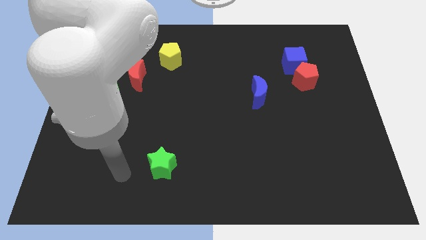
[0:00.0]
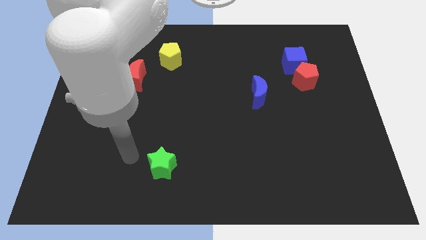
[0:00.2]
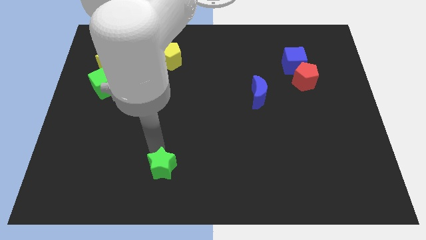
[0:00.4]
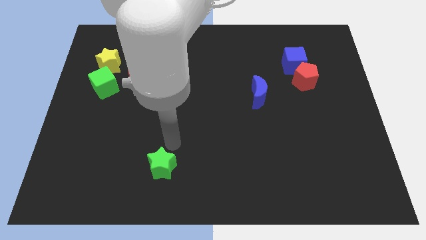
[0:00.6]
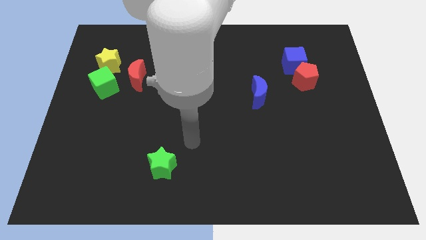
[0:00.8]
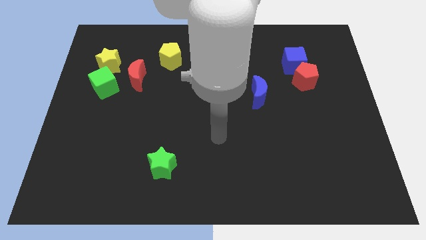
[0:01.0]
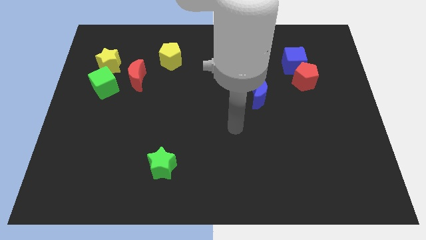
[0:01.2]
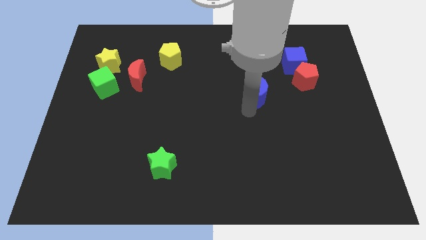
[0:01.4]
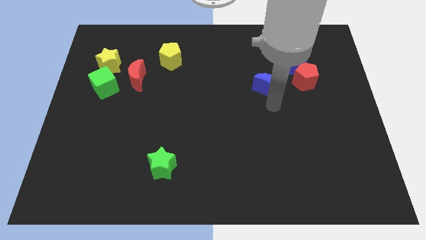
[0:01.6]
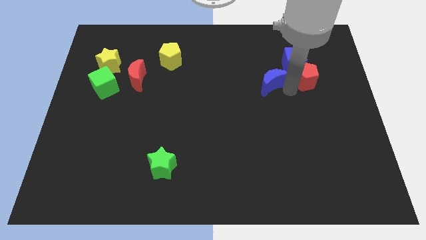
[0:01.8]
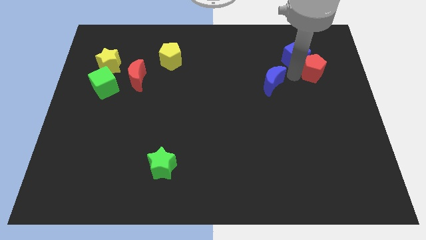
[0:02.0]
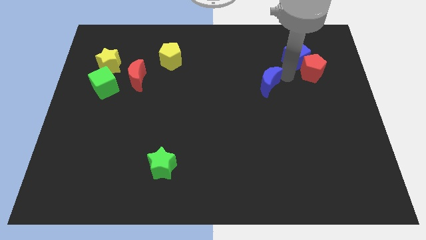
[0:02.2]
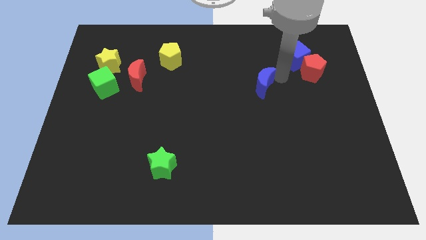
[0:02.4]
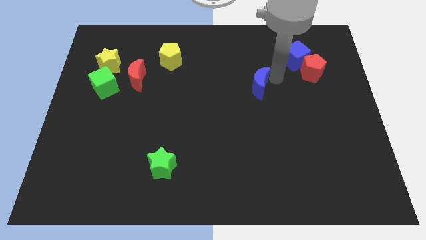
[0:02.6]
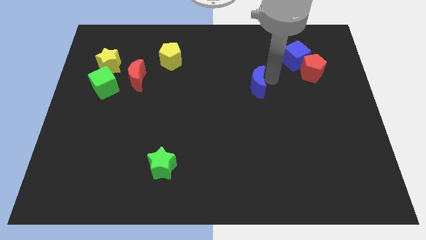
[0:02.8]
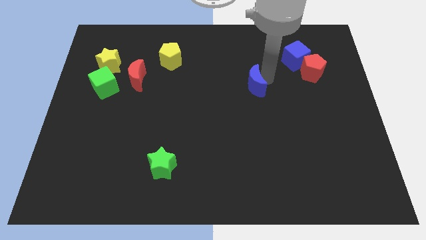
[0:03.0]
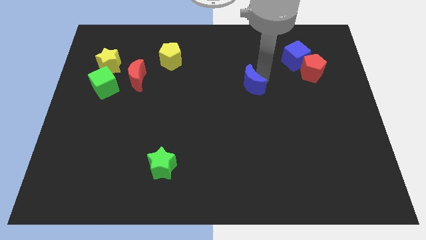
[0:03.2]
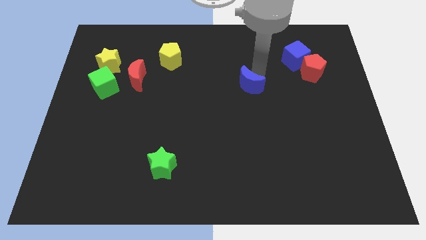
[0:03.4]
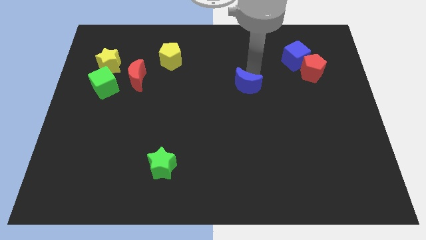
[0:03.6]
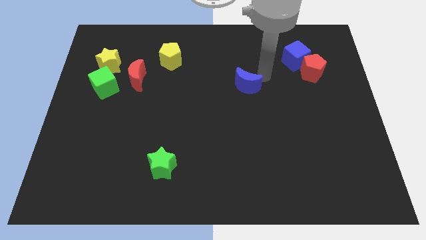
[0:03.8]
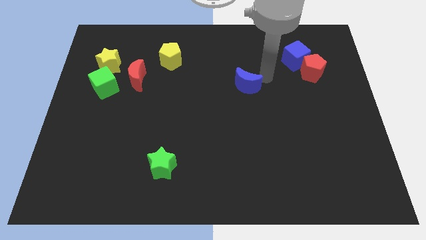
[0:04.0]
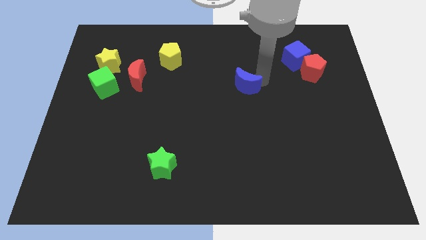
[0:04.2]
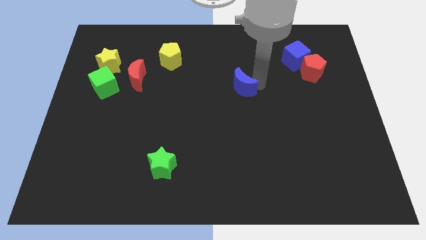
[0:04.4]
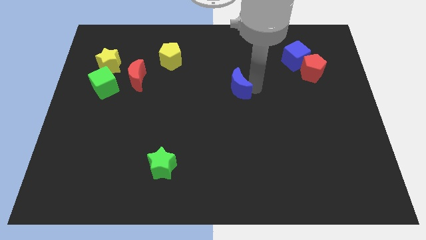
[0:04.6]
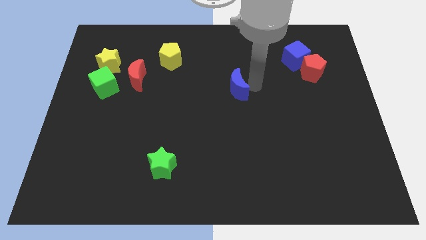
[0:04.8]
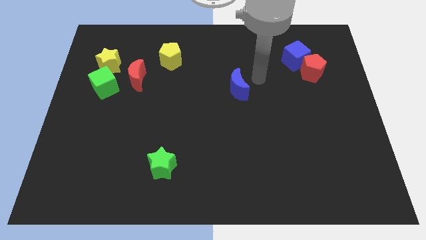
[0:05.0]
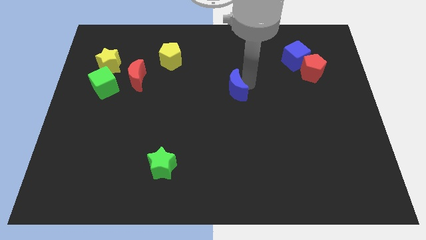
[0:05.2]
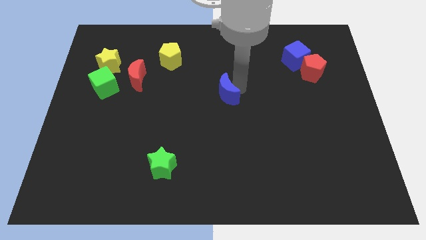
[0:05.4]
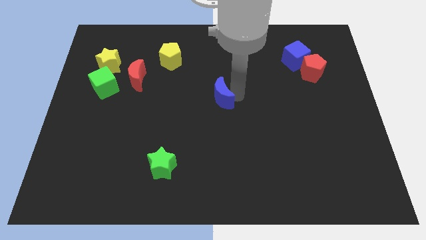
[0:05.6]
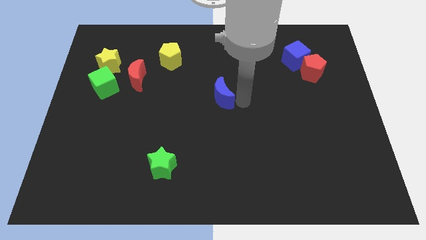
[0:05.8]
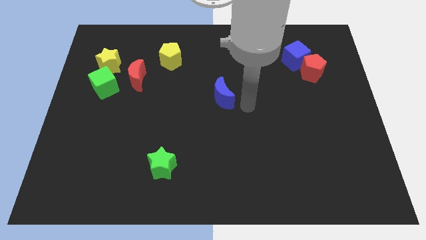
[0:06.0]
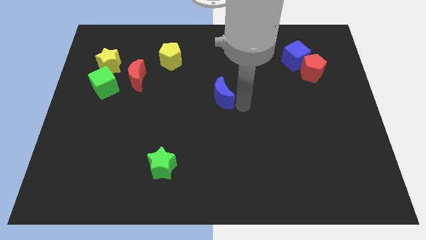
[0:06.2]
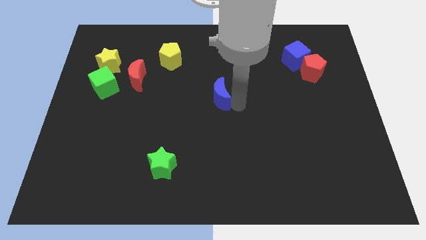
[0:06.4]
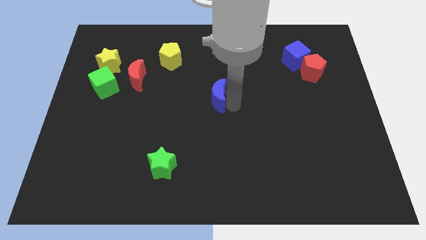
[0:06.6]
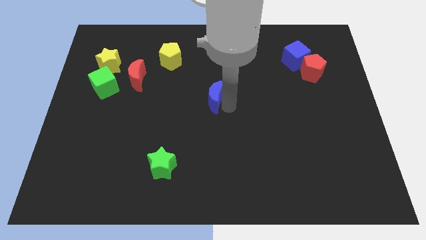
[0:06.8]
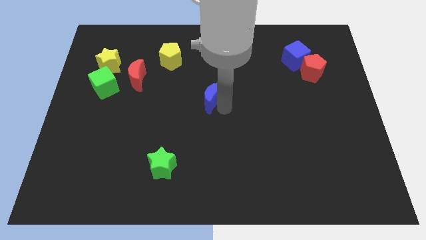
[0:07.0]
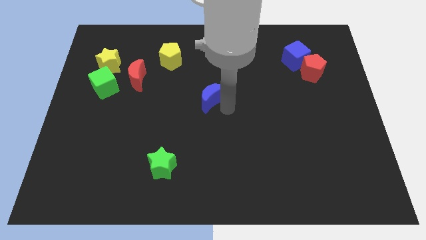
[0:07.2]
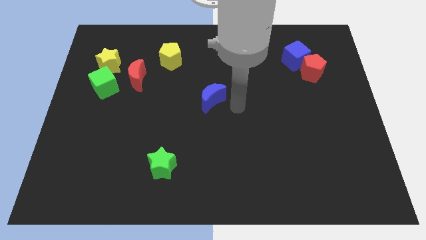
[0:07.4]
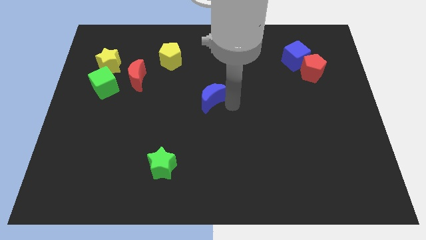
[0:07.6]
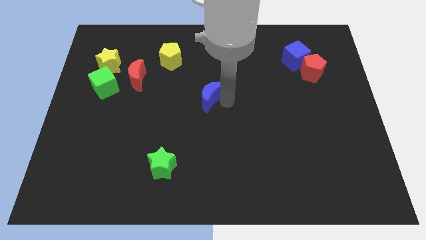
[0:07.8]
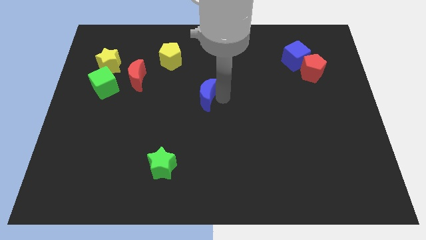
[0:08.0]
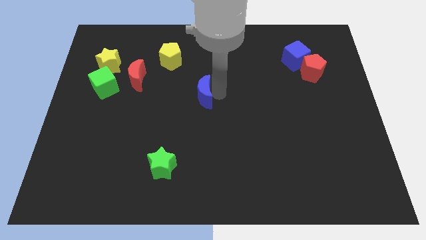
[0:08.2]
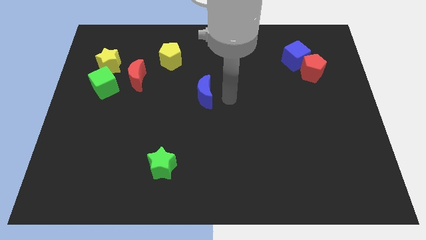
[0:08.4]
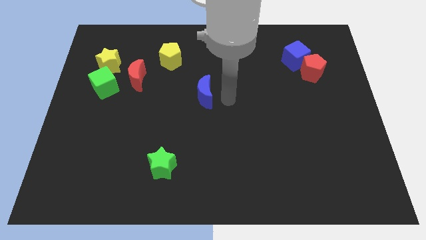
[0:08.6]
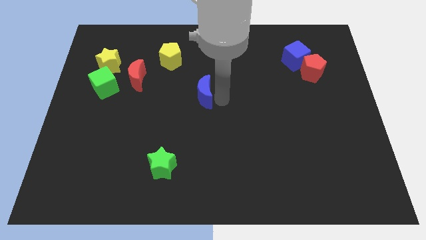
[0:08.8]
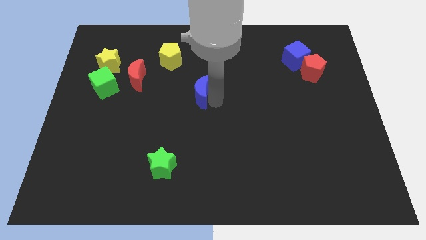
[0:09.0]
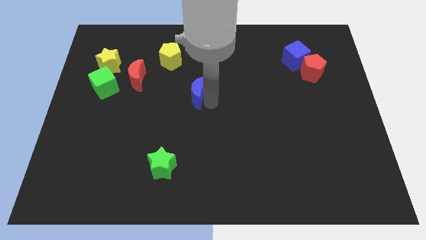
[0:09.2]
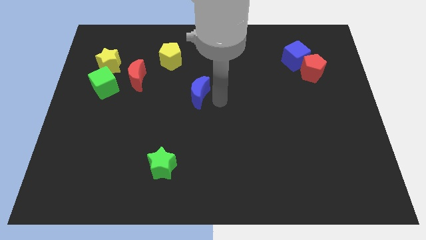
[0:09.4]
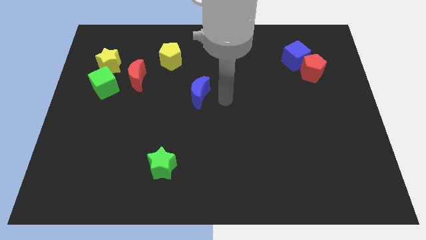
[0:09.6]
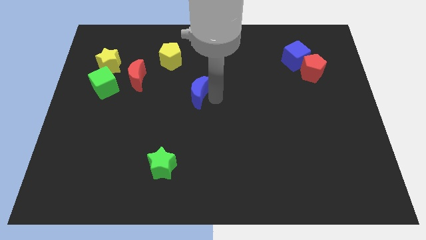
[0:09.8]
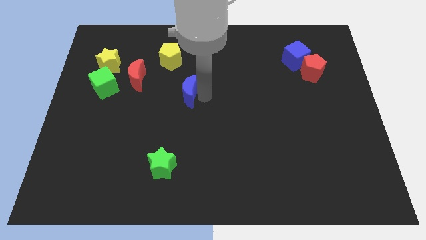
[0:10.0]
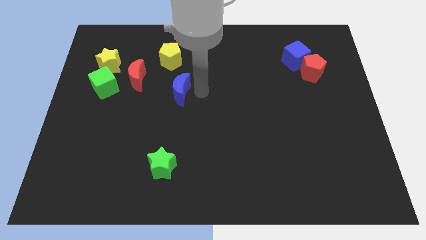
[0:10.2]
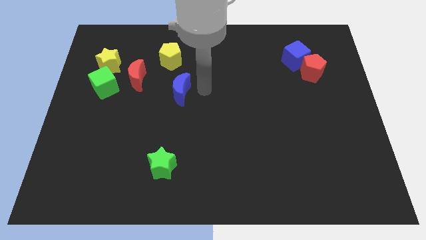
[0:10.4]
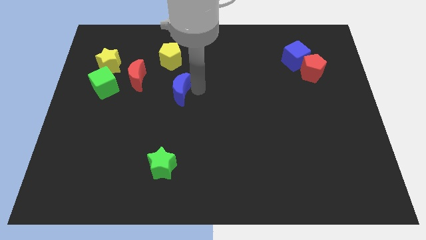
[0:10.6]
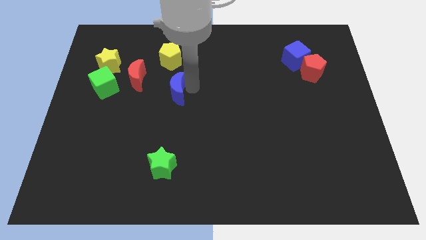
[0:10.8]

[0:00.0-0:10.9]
put the blue moon diagonally down and to the right of the red moon

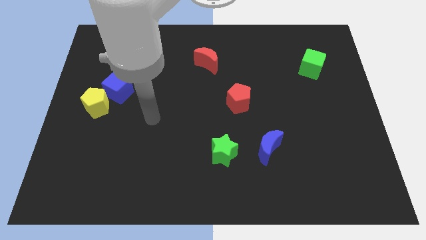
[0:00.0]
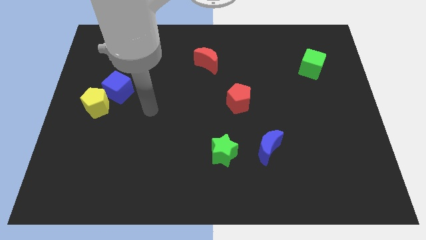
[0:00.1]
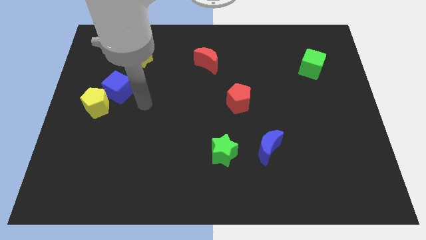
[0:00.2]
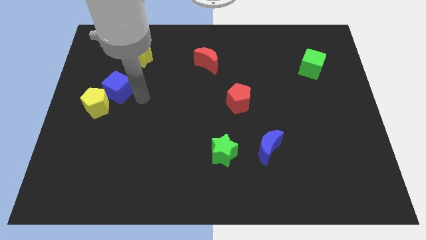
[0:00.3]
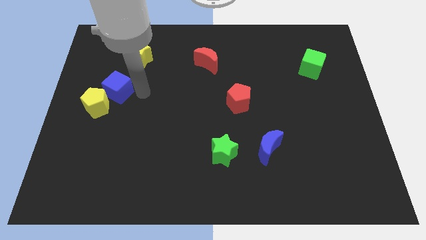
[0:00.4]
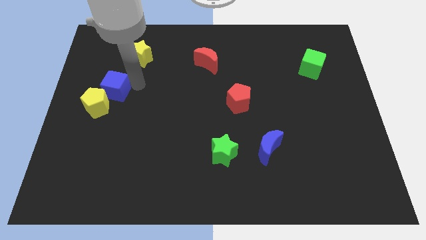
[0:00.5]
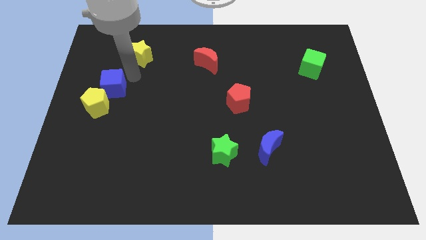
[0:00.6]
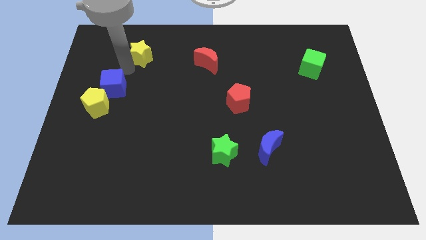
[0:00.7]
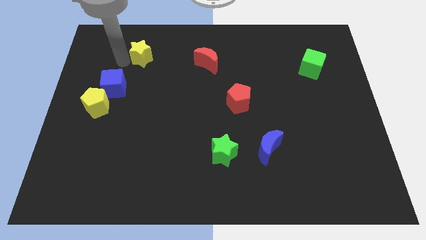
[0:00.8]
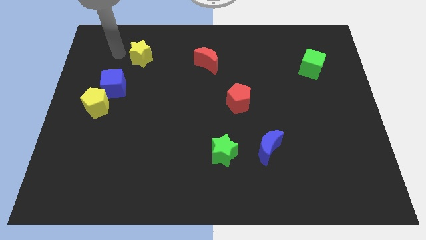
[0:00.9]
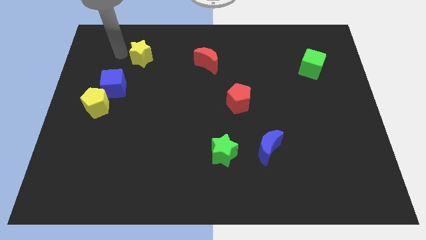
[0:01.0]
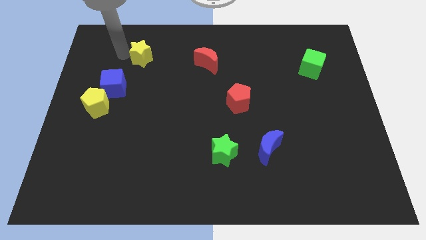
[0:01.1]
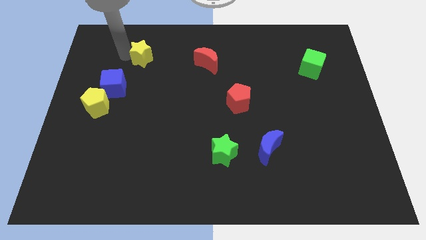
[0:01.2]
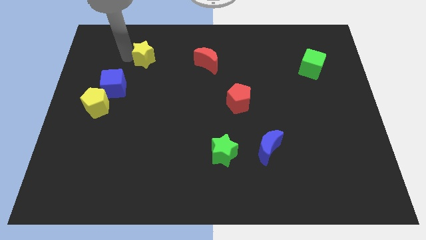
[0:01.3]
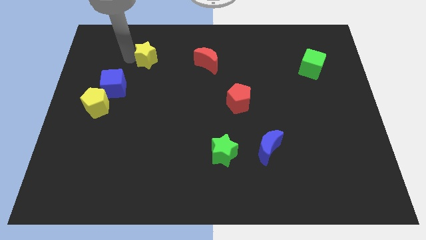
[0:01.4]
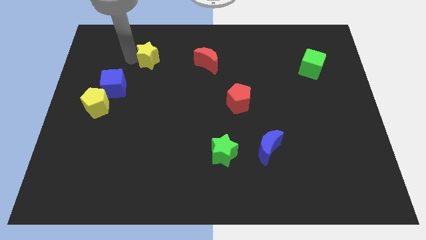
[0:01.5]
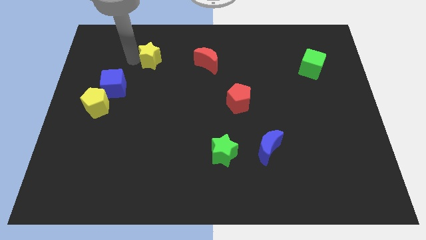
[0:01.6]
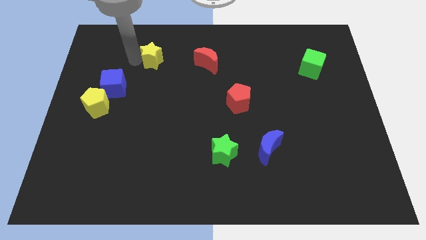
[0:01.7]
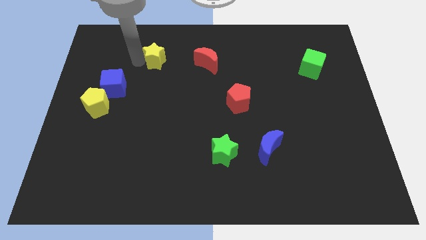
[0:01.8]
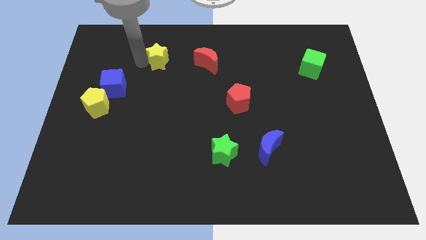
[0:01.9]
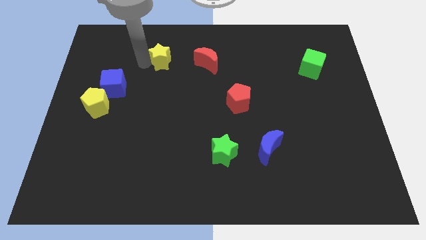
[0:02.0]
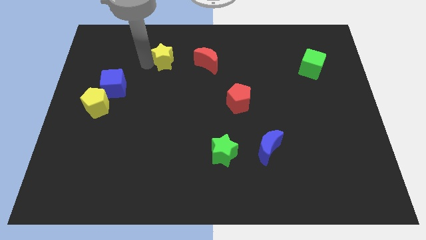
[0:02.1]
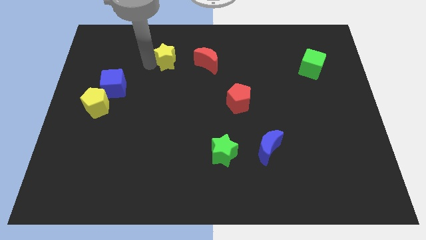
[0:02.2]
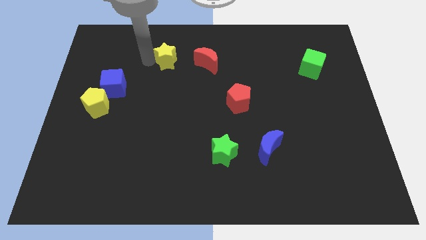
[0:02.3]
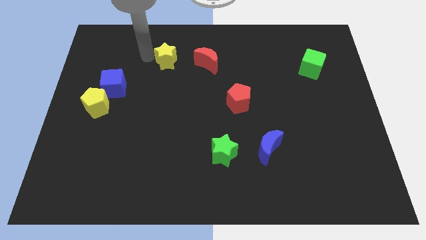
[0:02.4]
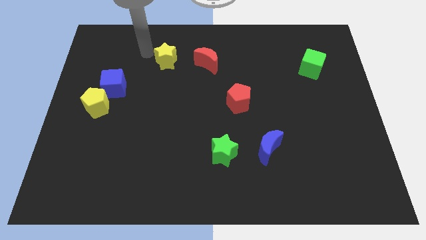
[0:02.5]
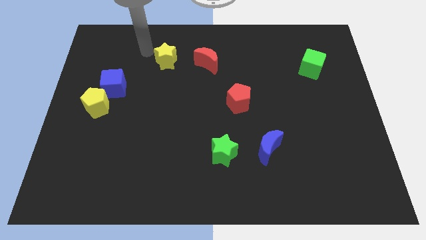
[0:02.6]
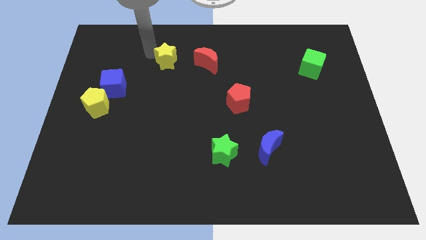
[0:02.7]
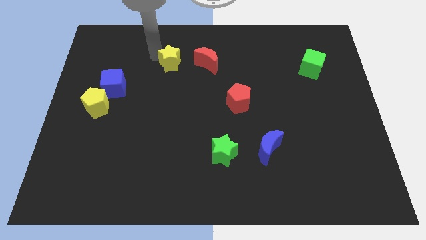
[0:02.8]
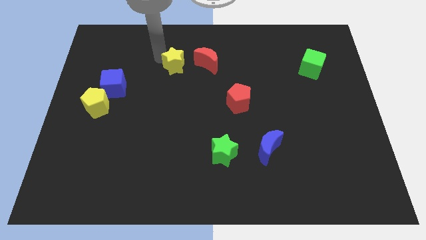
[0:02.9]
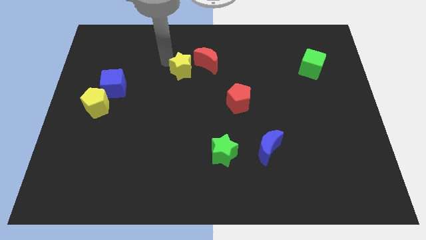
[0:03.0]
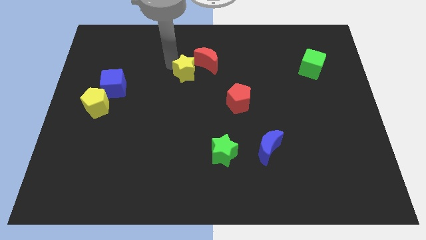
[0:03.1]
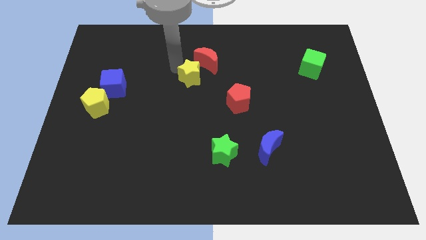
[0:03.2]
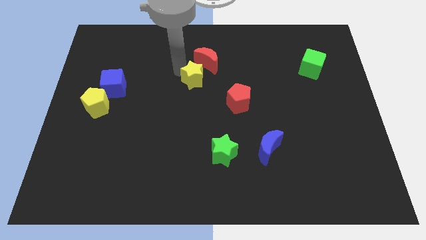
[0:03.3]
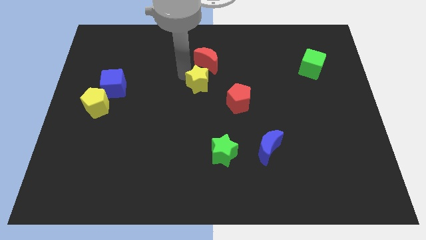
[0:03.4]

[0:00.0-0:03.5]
push the yellow star to the top left of the red pentagon
